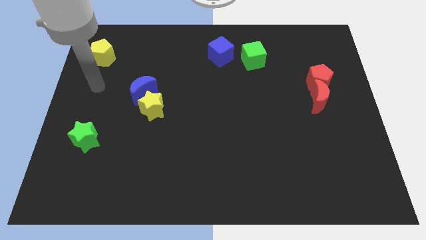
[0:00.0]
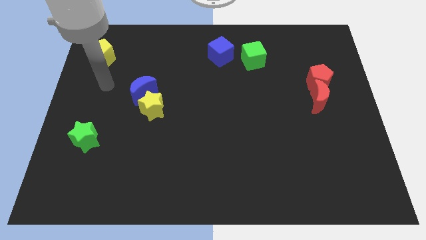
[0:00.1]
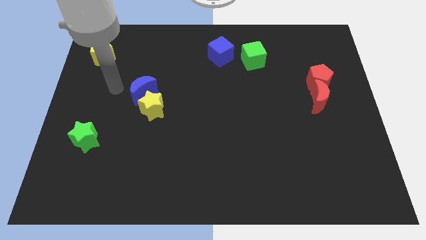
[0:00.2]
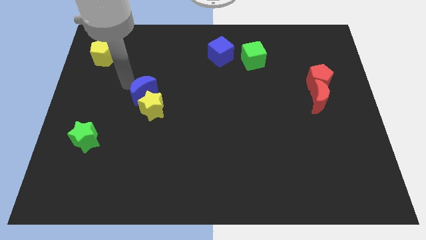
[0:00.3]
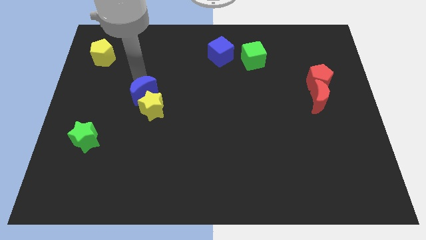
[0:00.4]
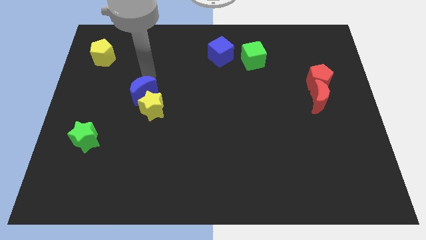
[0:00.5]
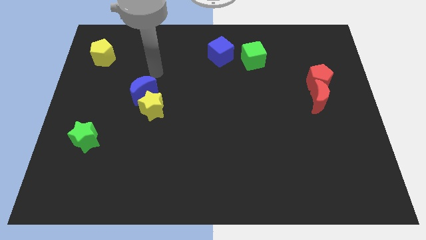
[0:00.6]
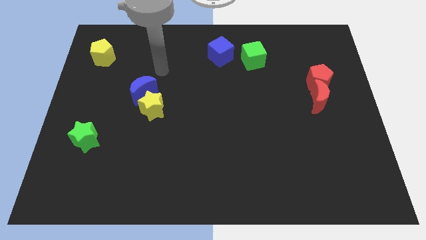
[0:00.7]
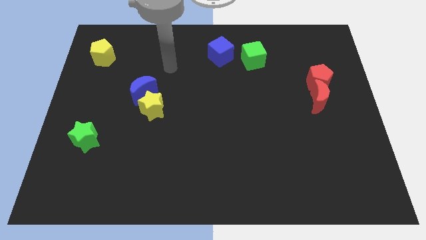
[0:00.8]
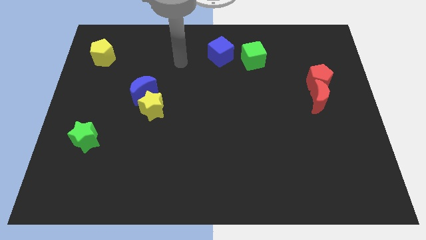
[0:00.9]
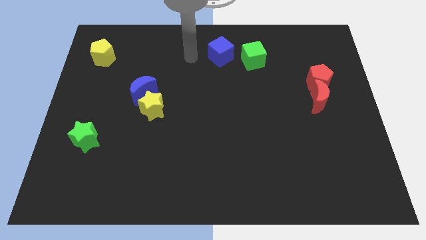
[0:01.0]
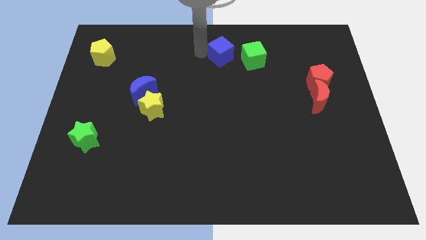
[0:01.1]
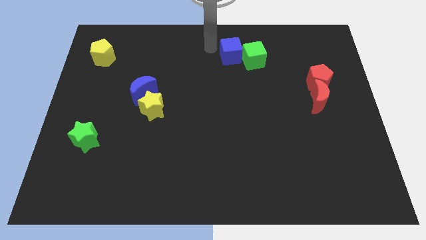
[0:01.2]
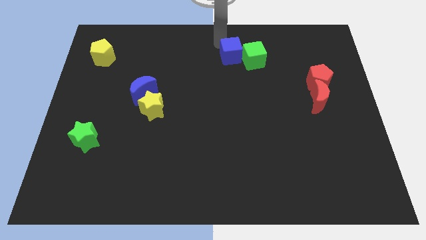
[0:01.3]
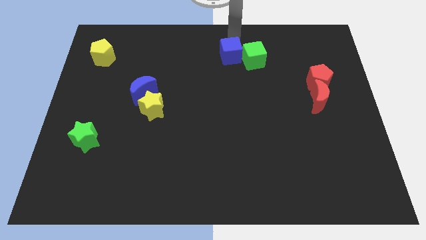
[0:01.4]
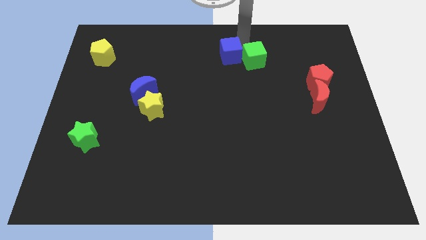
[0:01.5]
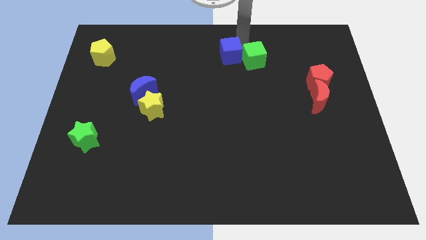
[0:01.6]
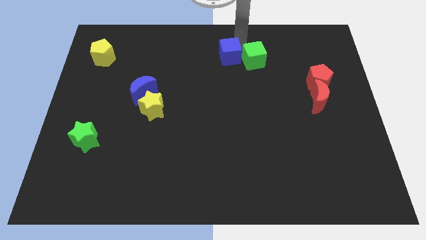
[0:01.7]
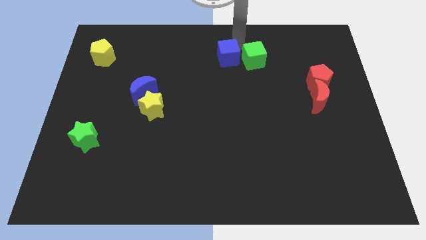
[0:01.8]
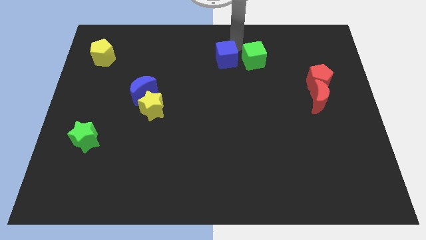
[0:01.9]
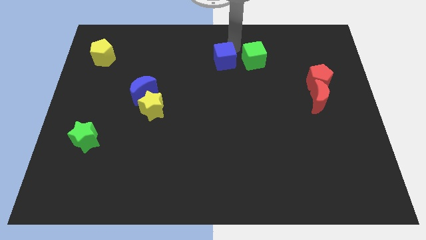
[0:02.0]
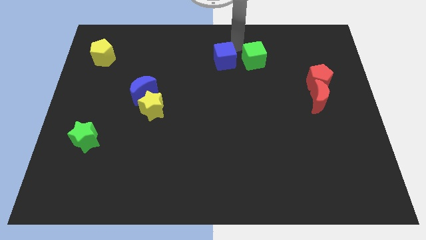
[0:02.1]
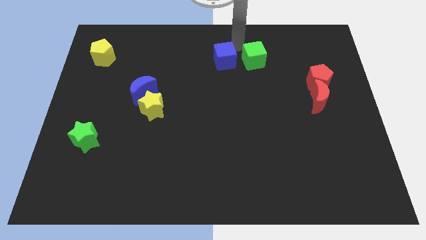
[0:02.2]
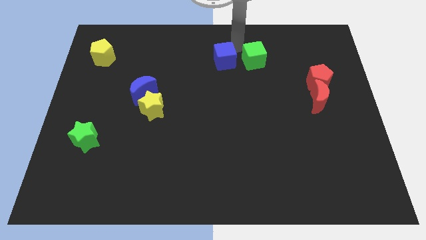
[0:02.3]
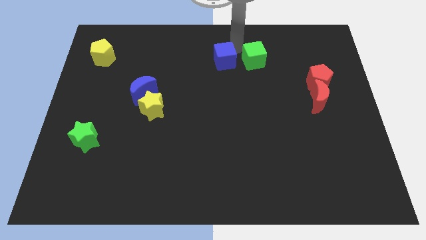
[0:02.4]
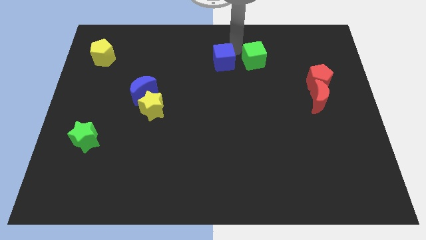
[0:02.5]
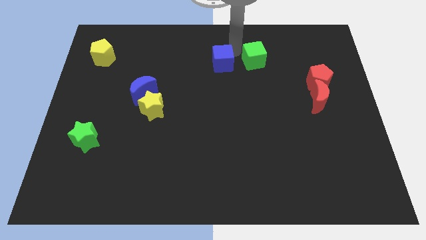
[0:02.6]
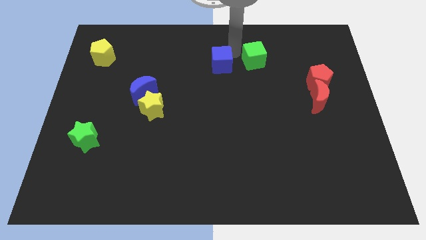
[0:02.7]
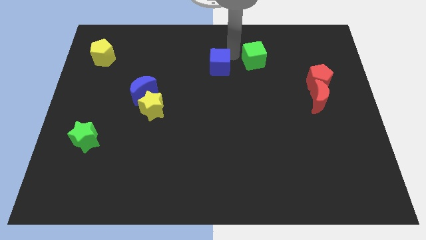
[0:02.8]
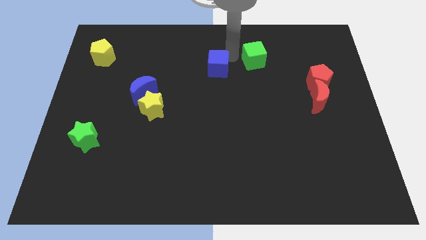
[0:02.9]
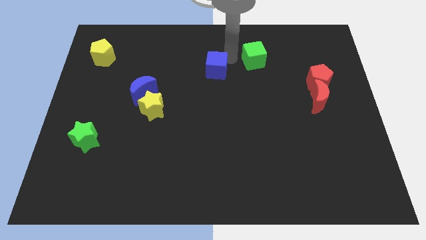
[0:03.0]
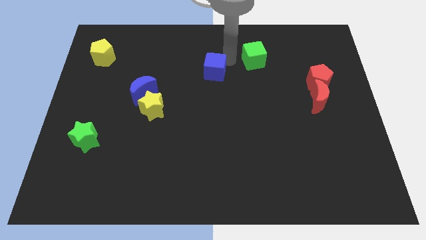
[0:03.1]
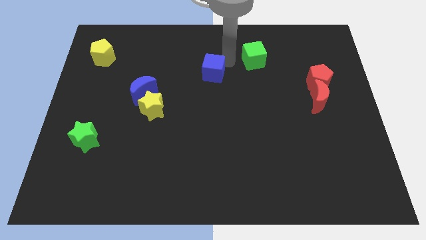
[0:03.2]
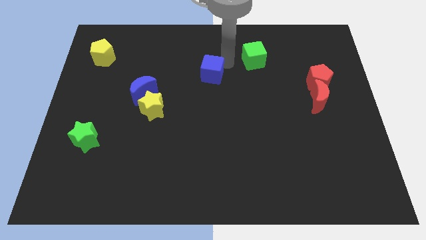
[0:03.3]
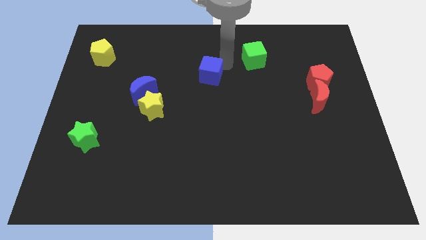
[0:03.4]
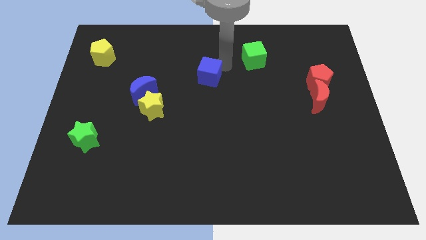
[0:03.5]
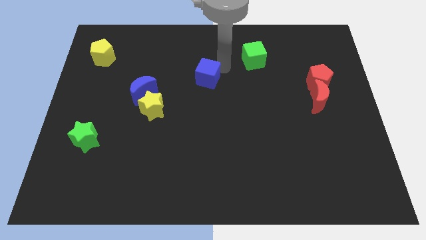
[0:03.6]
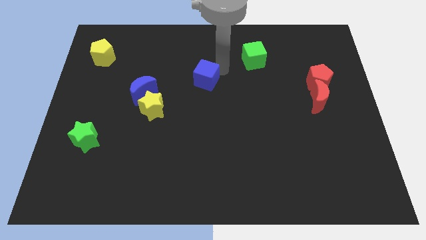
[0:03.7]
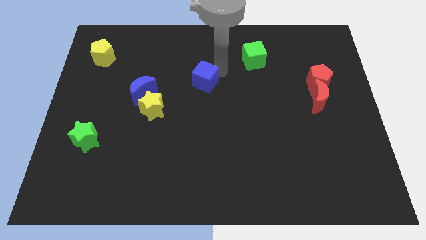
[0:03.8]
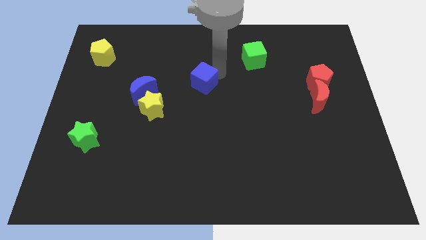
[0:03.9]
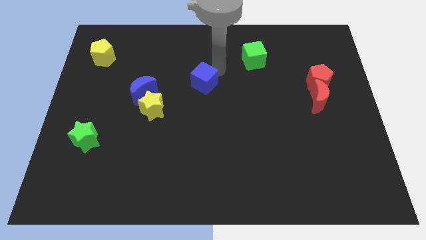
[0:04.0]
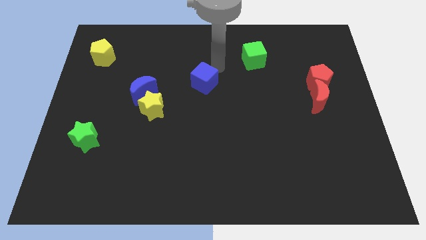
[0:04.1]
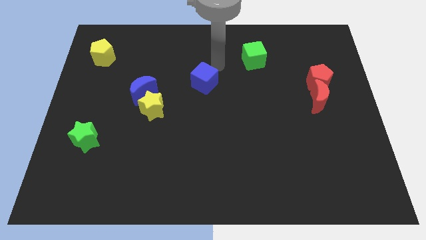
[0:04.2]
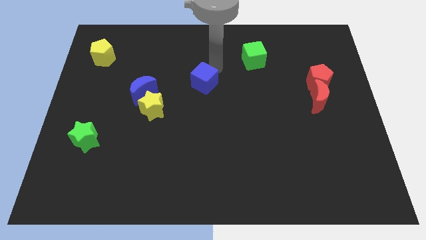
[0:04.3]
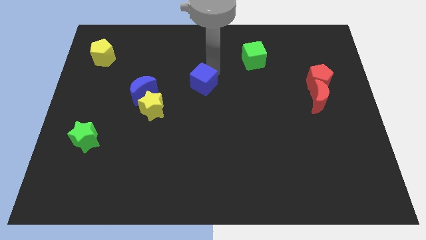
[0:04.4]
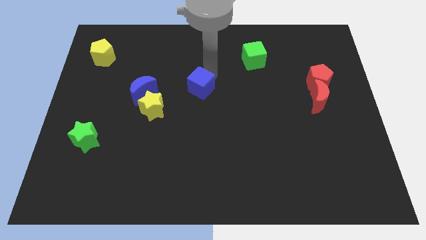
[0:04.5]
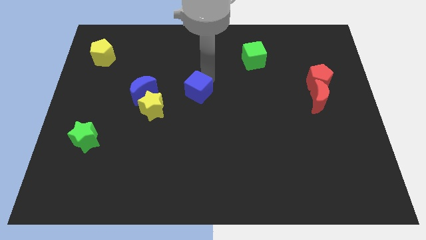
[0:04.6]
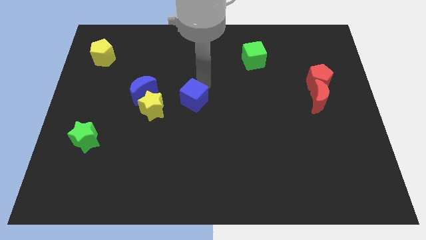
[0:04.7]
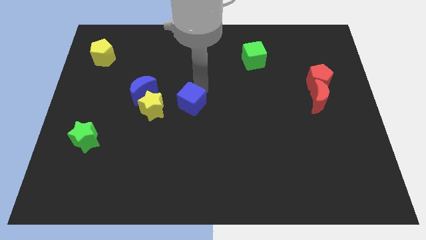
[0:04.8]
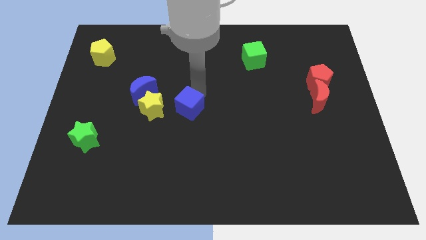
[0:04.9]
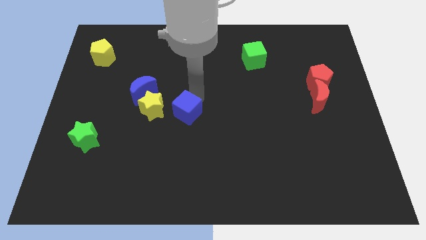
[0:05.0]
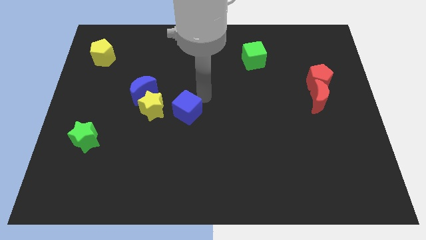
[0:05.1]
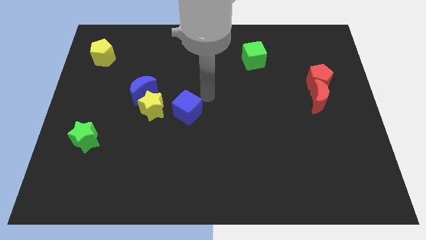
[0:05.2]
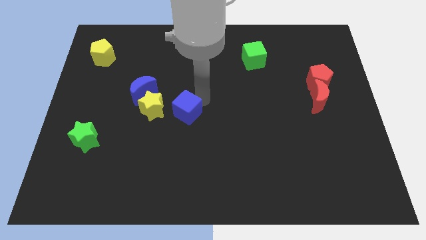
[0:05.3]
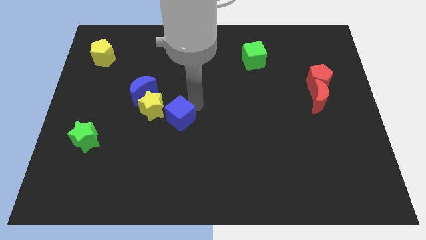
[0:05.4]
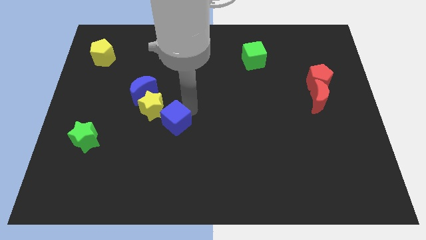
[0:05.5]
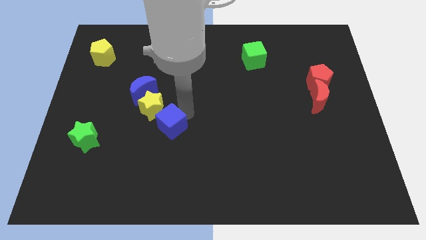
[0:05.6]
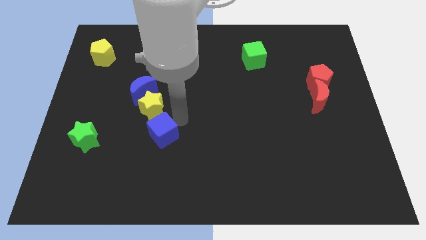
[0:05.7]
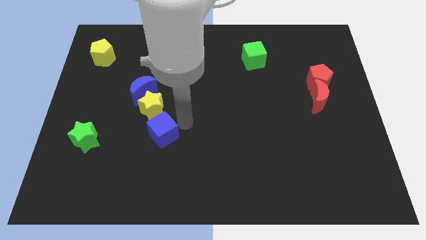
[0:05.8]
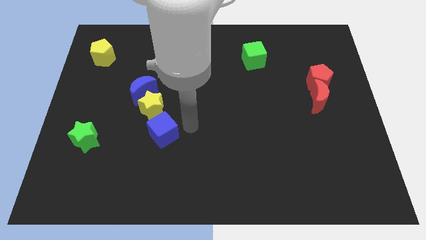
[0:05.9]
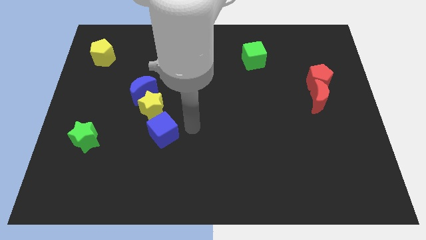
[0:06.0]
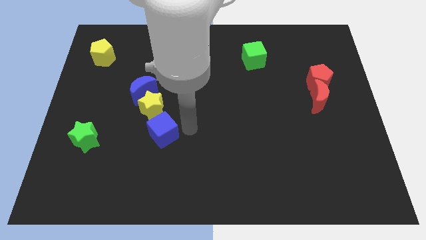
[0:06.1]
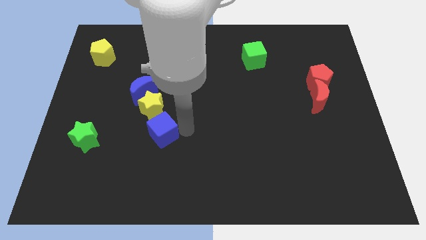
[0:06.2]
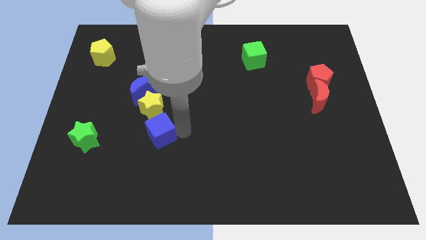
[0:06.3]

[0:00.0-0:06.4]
put the blue cube just right of the green star

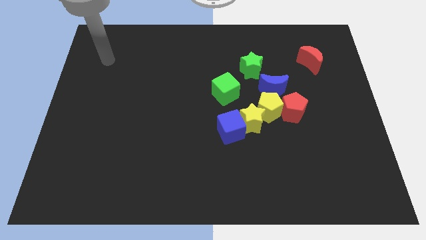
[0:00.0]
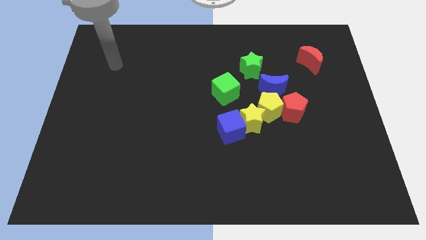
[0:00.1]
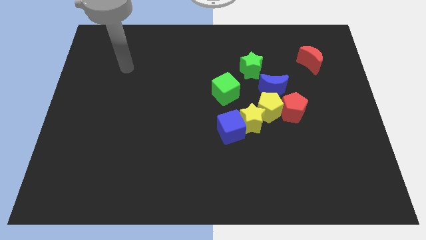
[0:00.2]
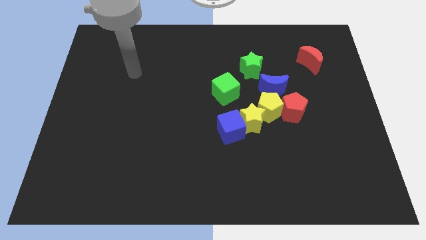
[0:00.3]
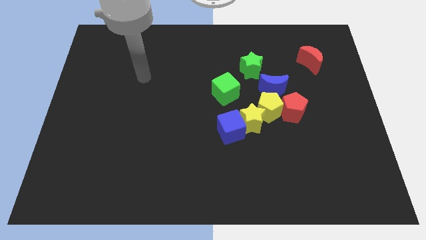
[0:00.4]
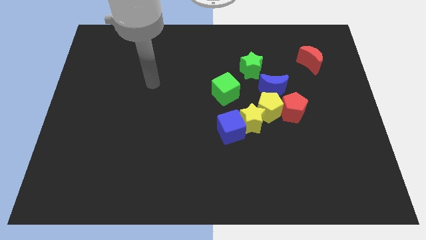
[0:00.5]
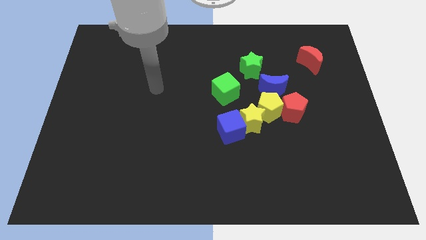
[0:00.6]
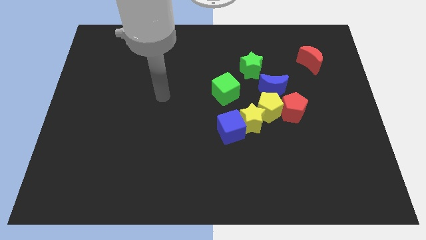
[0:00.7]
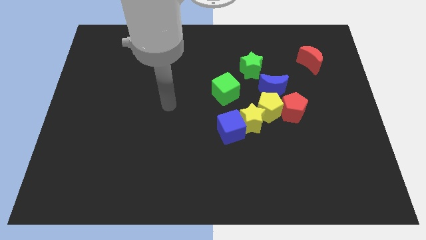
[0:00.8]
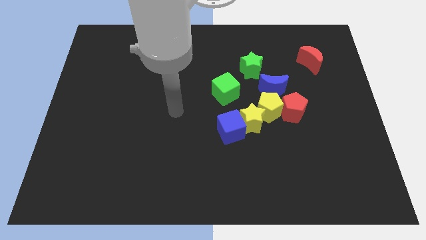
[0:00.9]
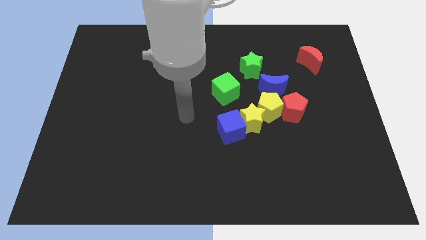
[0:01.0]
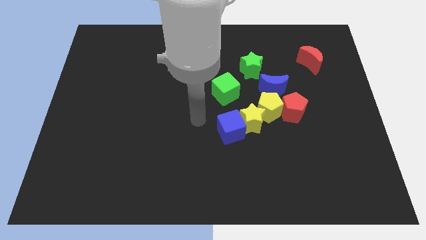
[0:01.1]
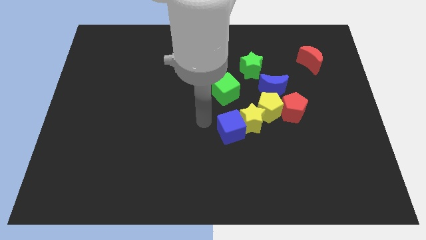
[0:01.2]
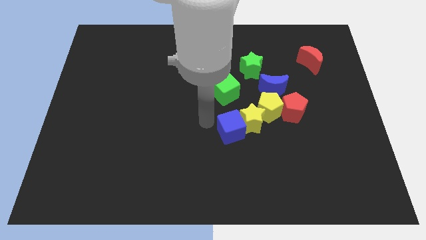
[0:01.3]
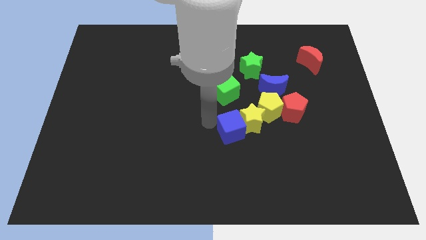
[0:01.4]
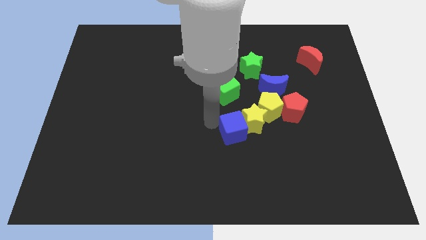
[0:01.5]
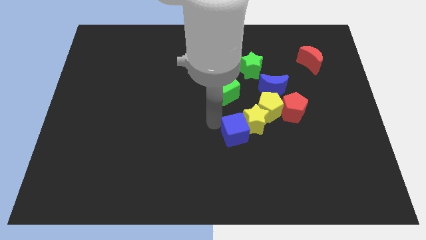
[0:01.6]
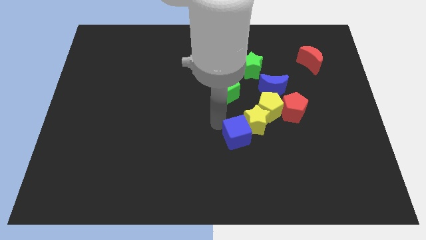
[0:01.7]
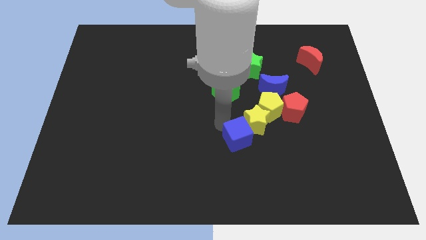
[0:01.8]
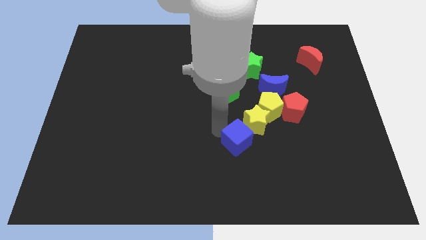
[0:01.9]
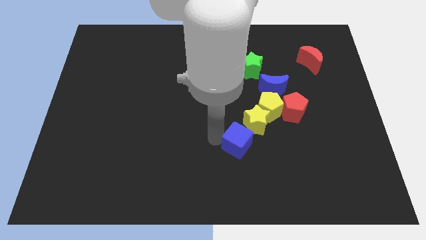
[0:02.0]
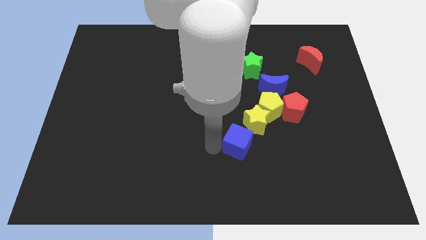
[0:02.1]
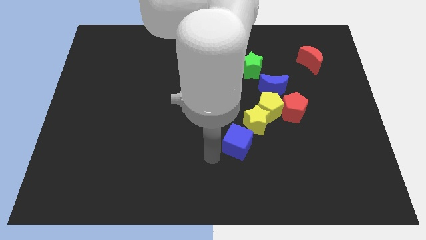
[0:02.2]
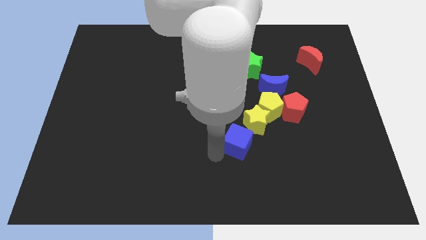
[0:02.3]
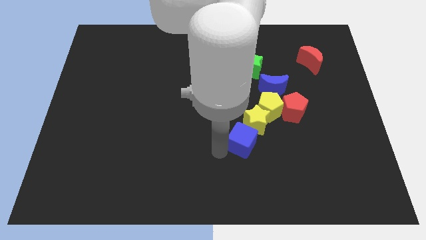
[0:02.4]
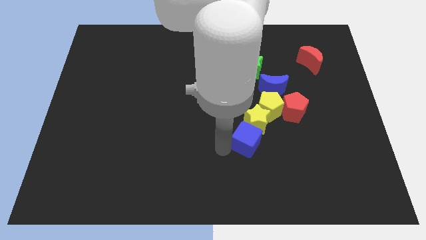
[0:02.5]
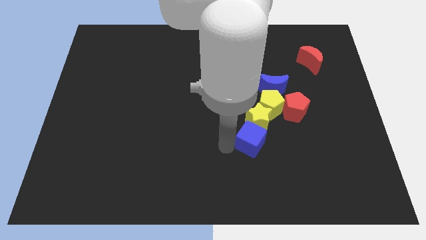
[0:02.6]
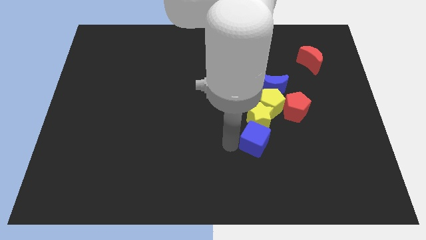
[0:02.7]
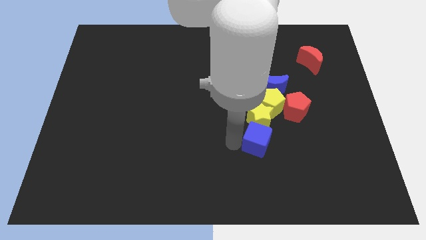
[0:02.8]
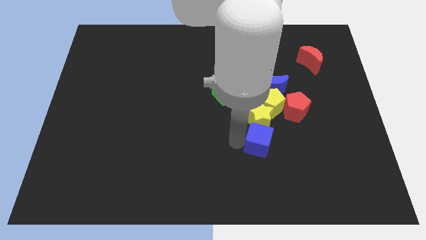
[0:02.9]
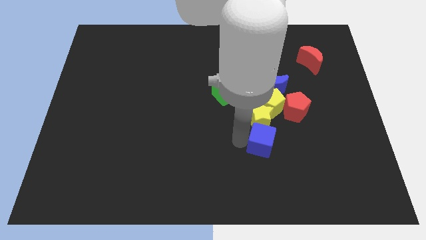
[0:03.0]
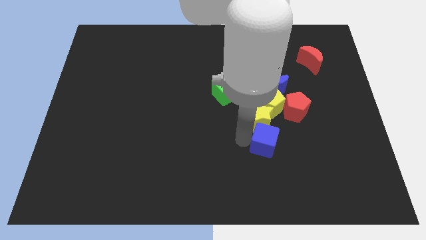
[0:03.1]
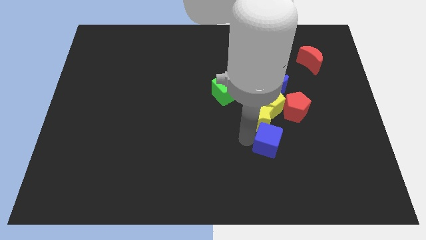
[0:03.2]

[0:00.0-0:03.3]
slide the blue cube to the bottom side of the blue moon
